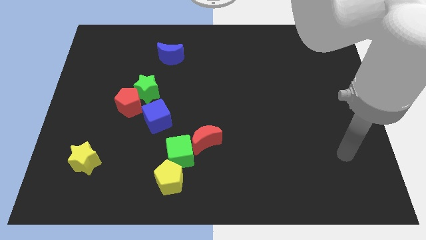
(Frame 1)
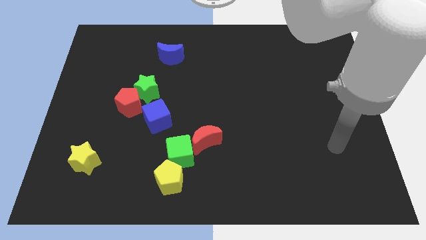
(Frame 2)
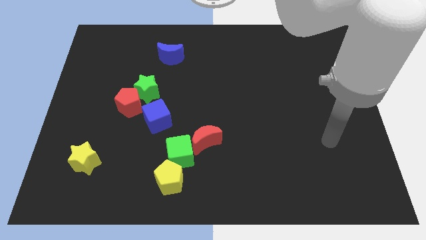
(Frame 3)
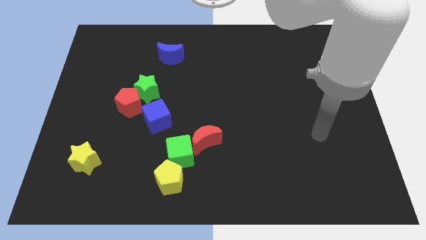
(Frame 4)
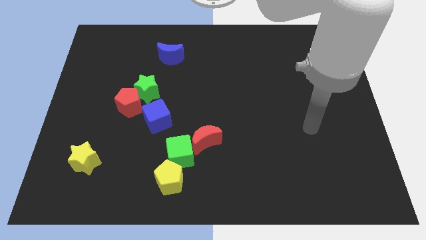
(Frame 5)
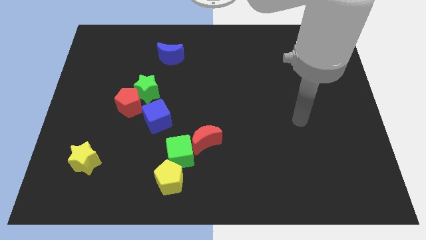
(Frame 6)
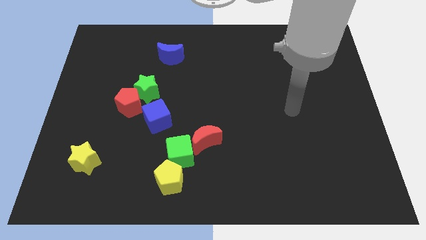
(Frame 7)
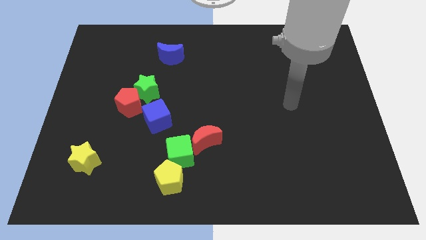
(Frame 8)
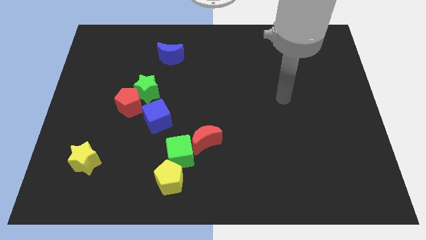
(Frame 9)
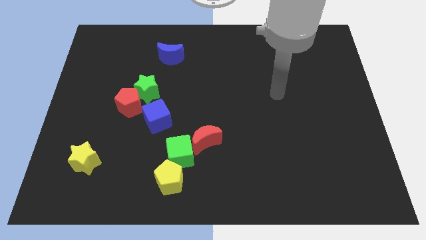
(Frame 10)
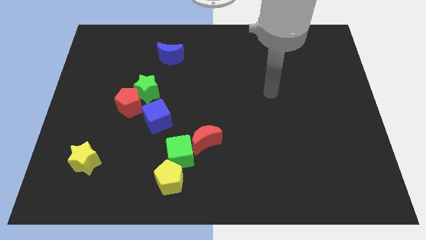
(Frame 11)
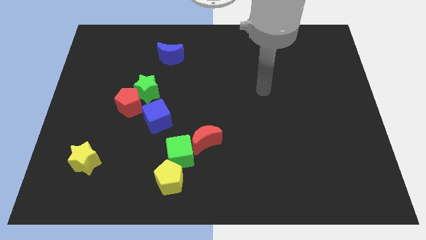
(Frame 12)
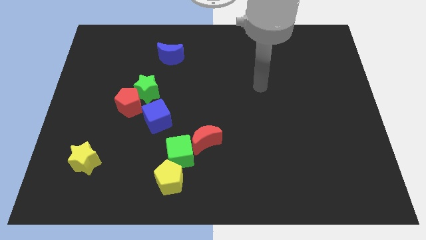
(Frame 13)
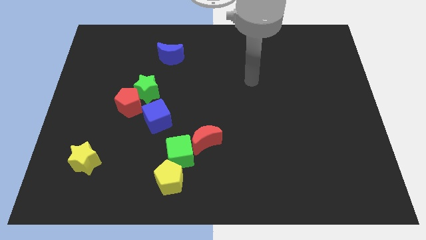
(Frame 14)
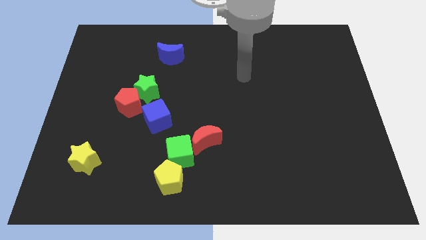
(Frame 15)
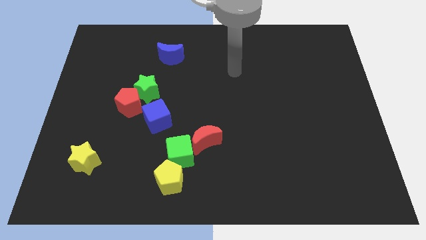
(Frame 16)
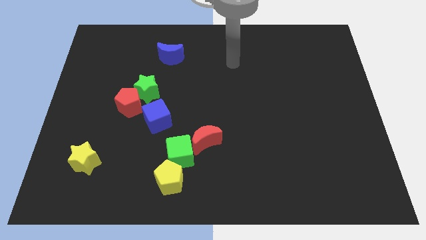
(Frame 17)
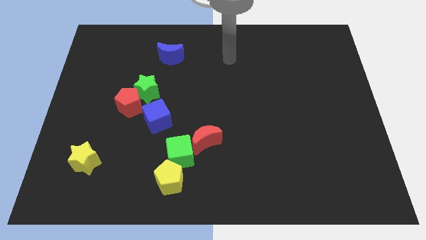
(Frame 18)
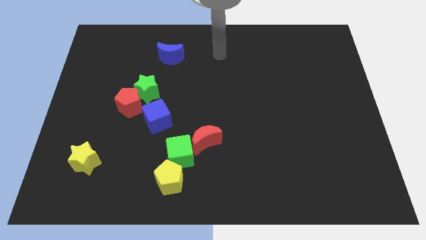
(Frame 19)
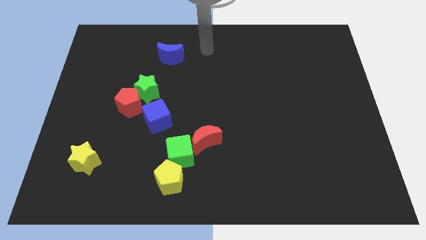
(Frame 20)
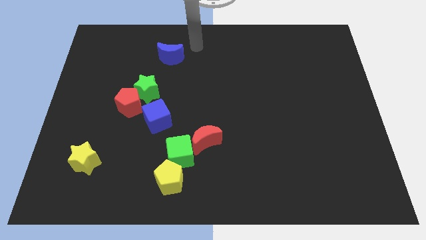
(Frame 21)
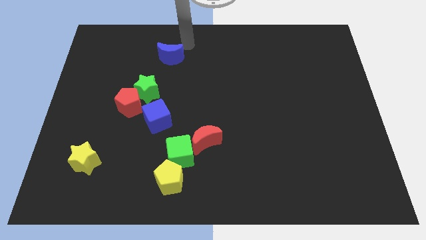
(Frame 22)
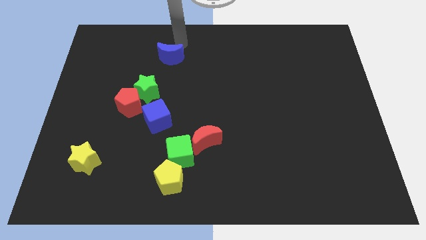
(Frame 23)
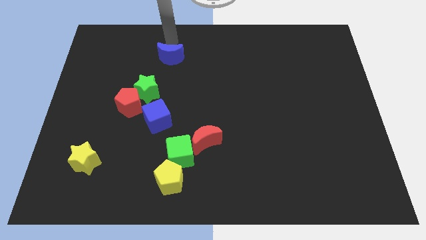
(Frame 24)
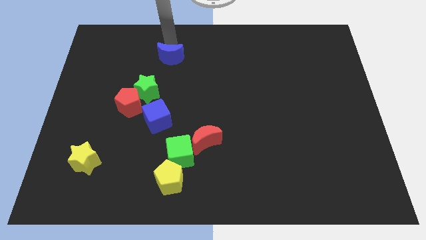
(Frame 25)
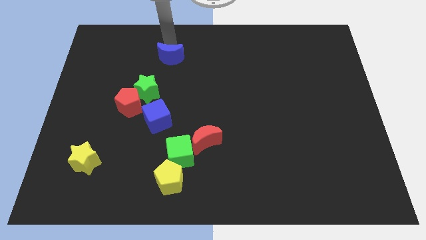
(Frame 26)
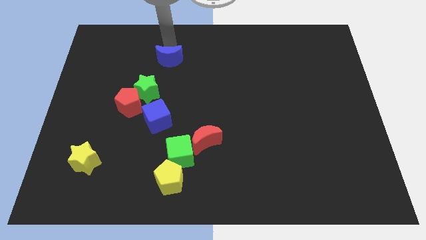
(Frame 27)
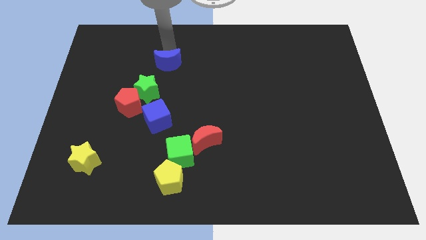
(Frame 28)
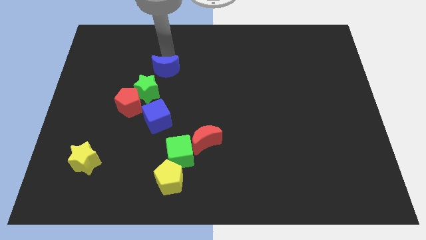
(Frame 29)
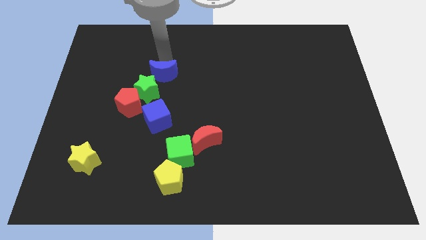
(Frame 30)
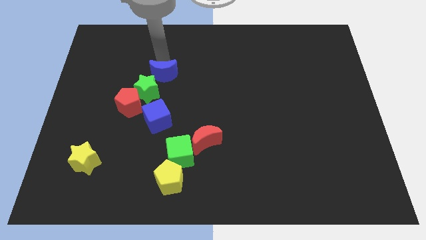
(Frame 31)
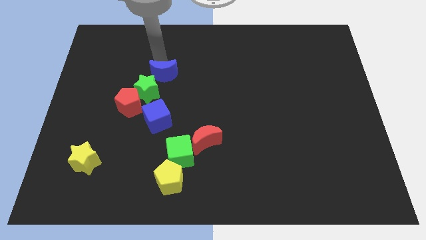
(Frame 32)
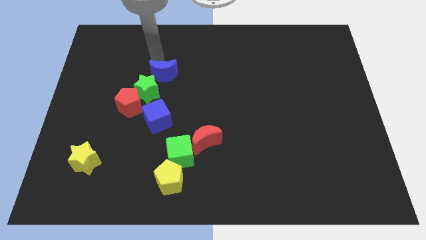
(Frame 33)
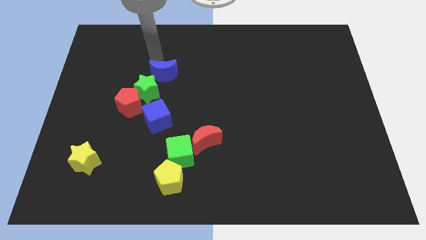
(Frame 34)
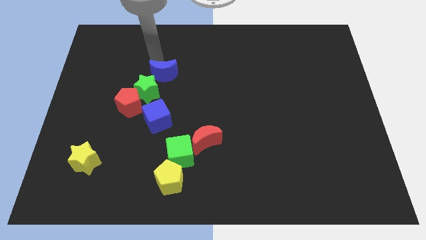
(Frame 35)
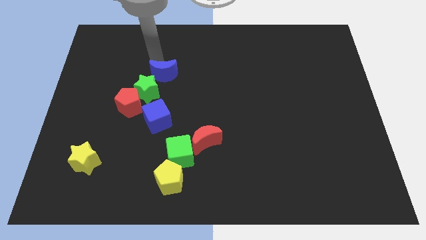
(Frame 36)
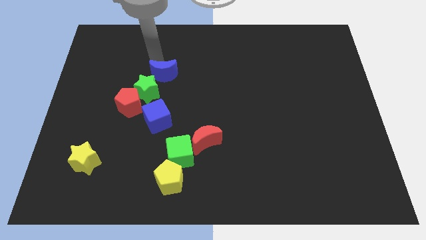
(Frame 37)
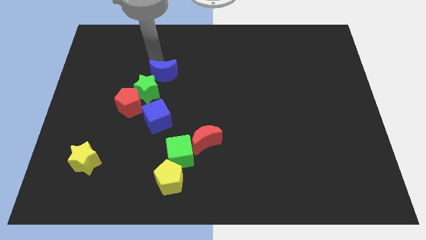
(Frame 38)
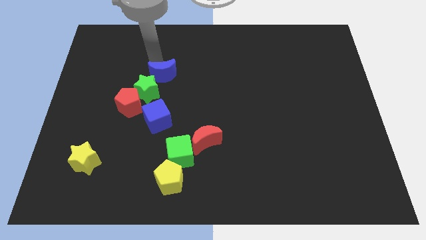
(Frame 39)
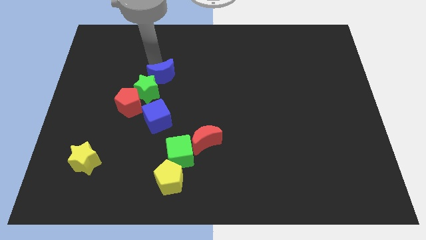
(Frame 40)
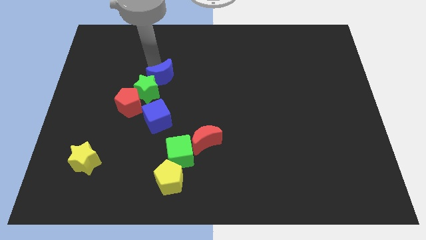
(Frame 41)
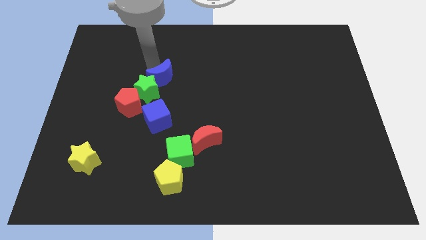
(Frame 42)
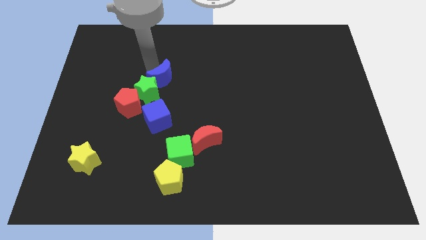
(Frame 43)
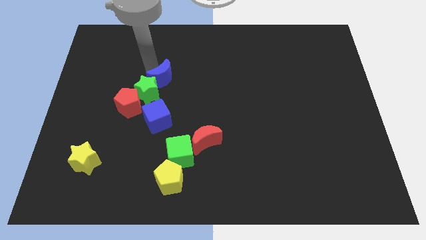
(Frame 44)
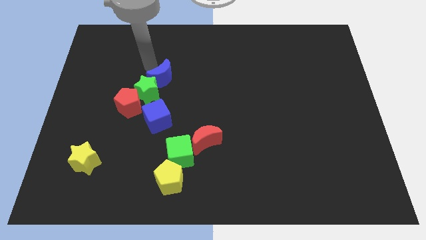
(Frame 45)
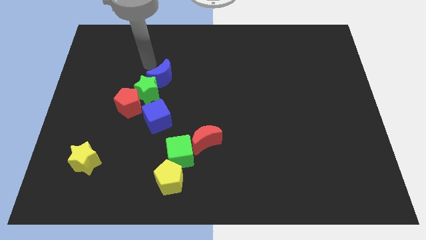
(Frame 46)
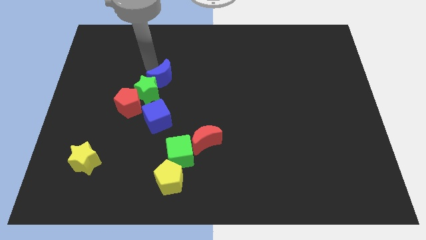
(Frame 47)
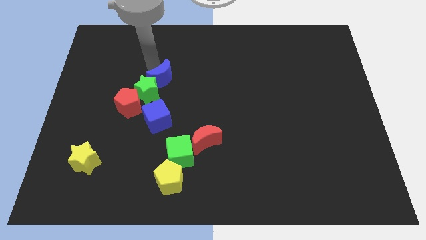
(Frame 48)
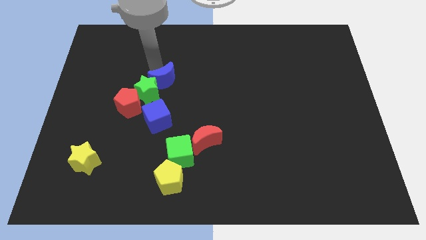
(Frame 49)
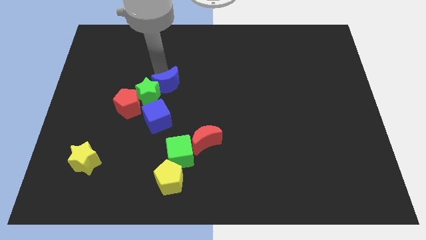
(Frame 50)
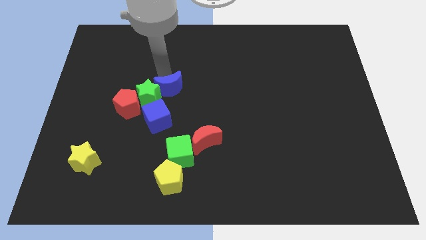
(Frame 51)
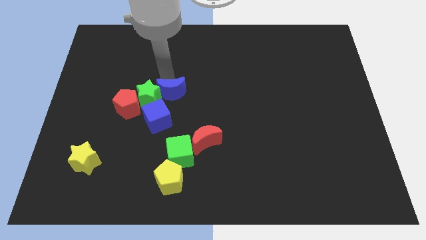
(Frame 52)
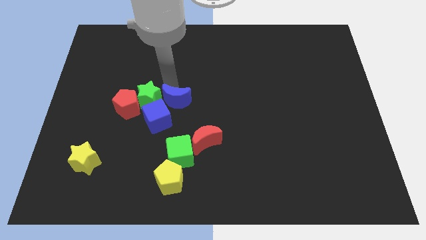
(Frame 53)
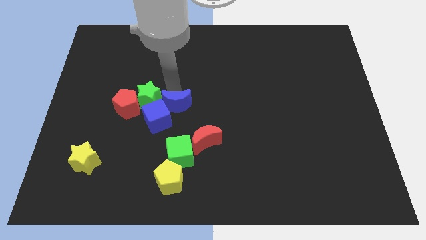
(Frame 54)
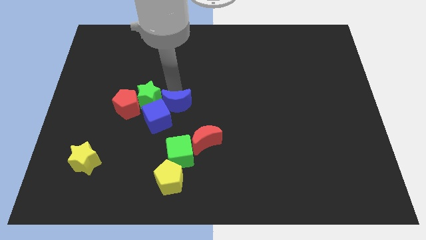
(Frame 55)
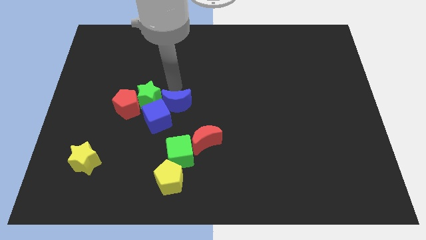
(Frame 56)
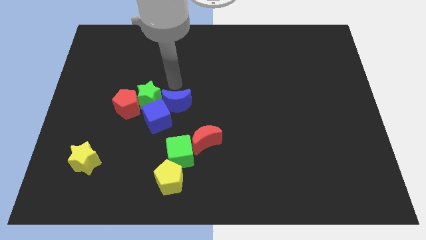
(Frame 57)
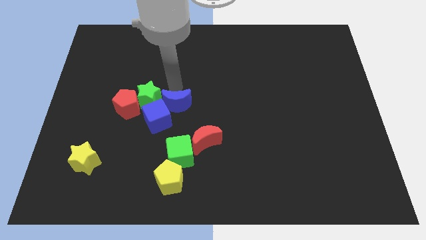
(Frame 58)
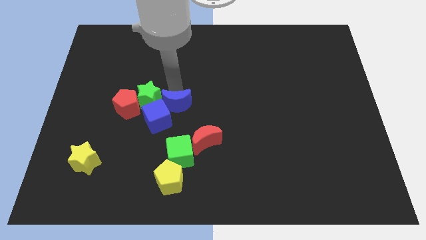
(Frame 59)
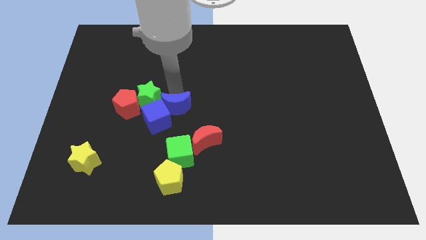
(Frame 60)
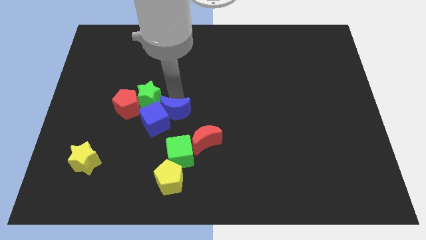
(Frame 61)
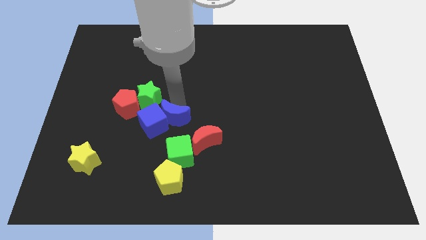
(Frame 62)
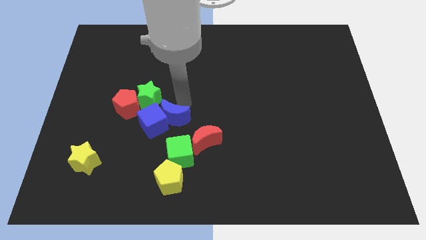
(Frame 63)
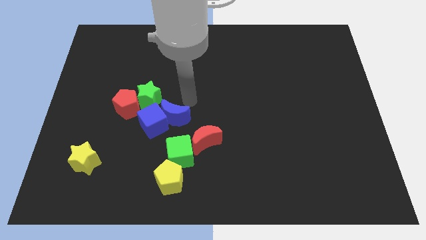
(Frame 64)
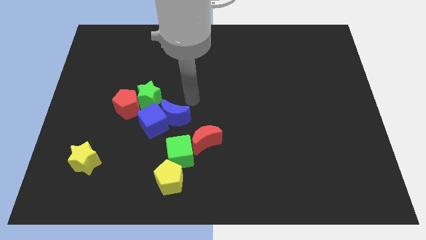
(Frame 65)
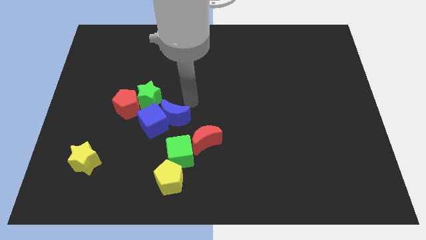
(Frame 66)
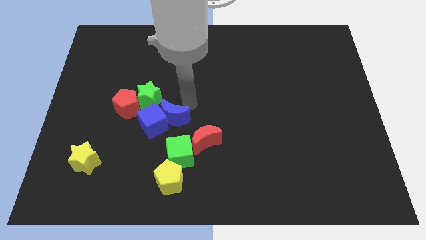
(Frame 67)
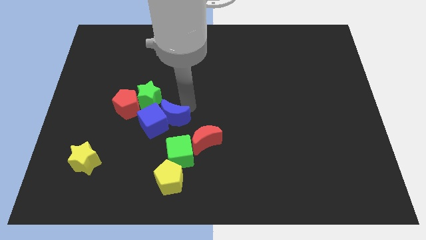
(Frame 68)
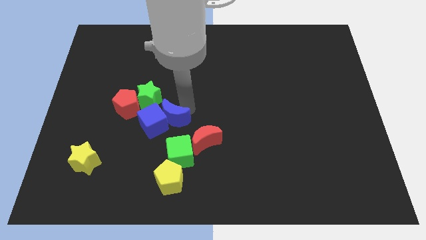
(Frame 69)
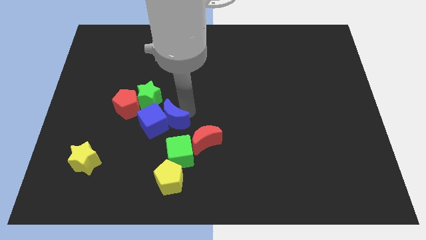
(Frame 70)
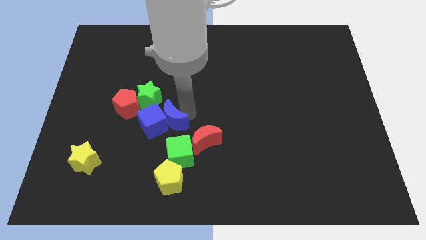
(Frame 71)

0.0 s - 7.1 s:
slide the blue moon to the top left of the green cube
